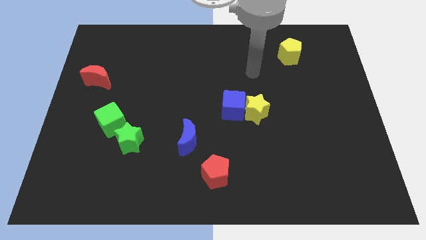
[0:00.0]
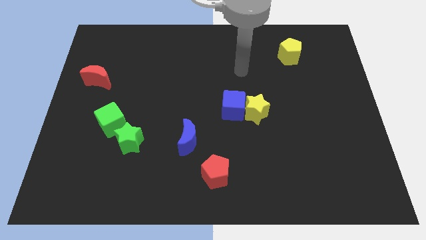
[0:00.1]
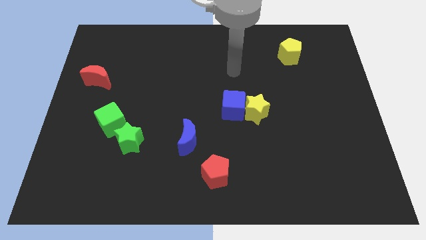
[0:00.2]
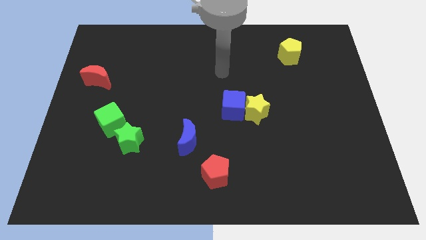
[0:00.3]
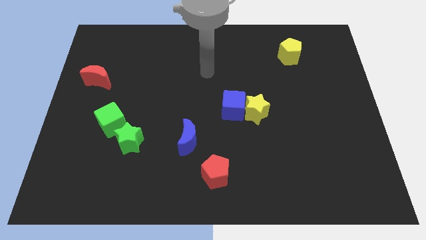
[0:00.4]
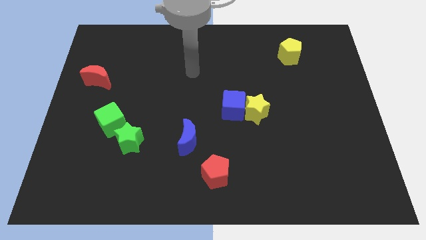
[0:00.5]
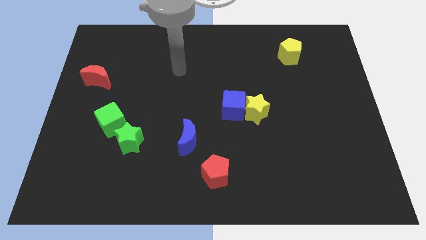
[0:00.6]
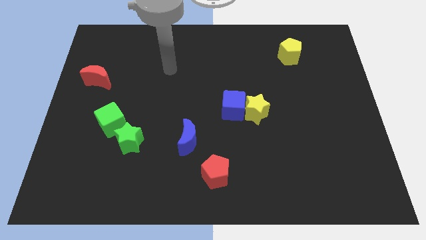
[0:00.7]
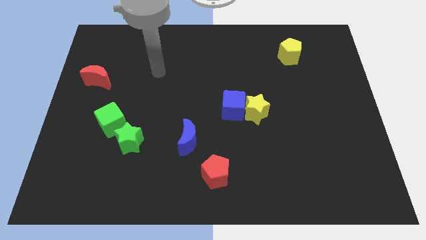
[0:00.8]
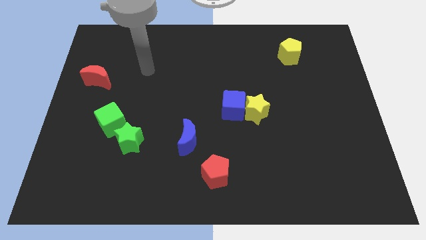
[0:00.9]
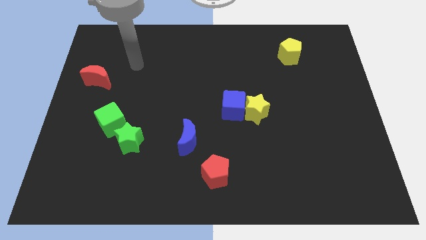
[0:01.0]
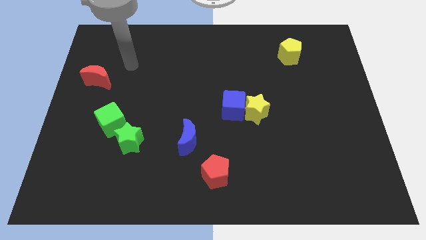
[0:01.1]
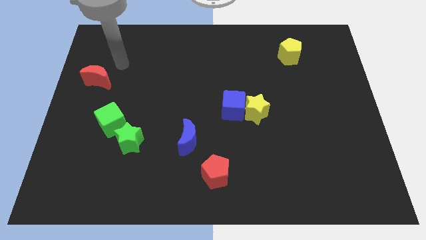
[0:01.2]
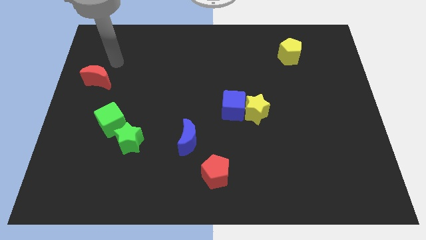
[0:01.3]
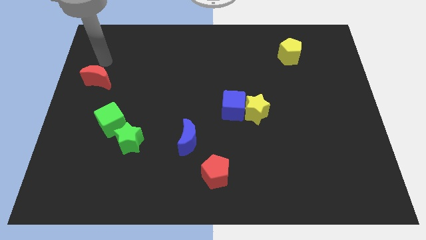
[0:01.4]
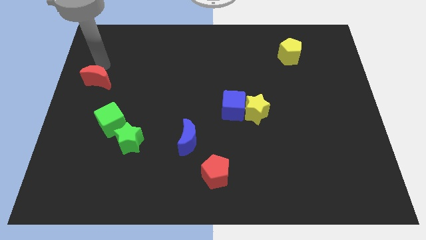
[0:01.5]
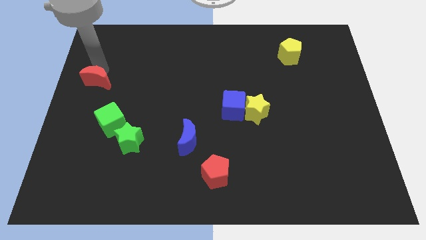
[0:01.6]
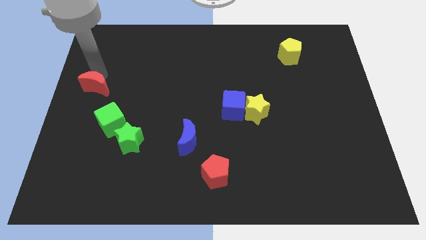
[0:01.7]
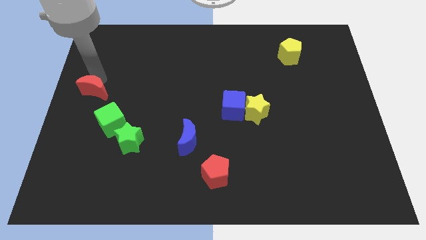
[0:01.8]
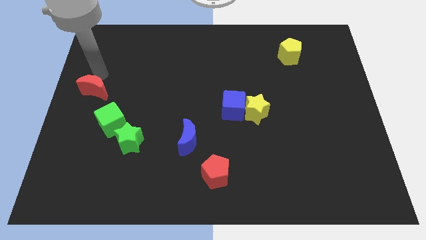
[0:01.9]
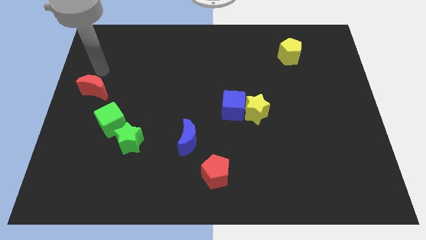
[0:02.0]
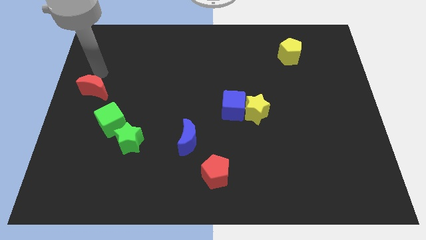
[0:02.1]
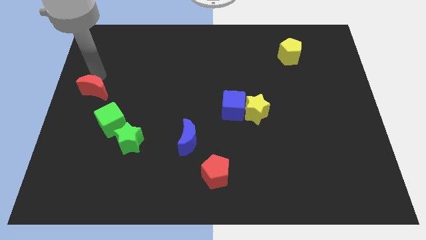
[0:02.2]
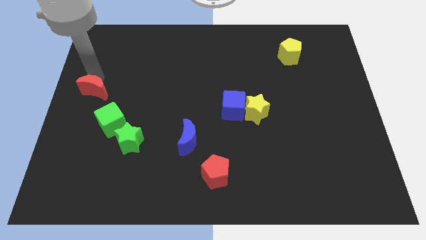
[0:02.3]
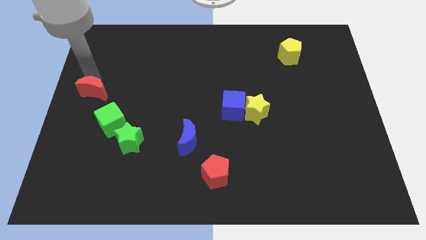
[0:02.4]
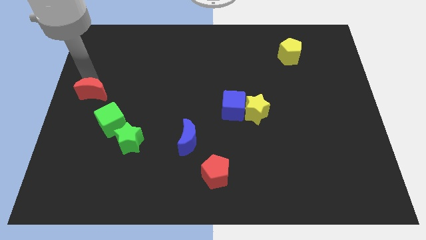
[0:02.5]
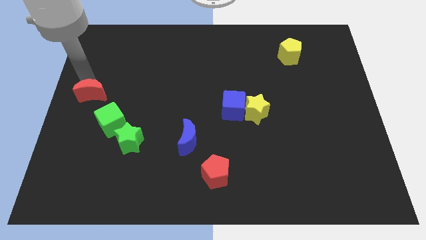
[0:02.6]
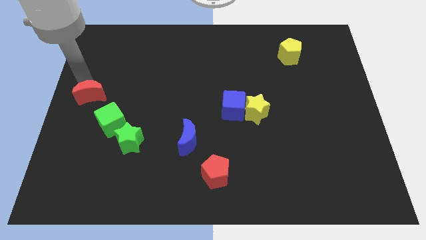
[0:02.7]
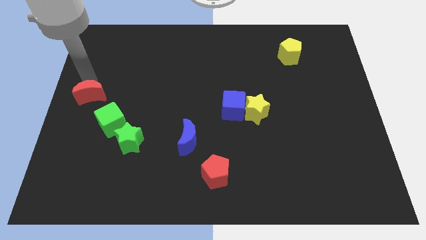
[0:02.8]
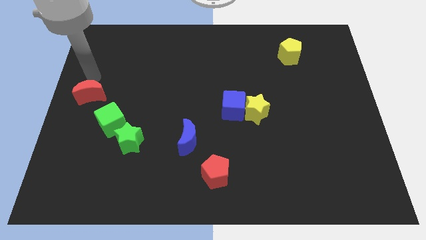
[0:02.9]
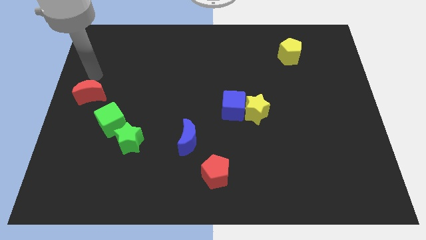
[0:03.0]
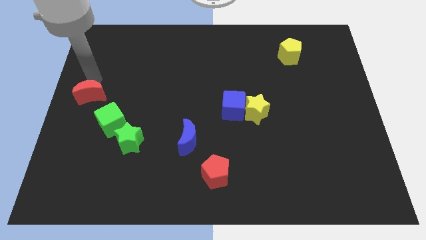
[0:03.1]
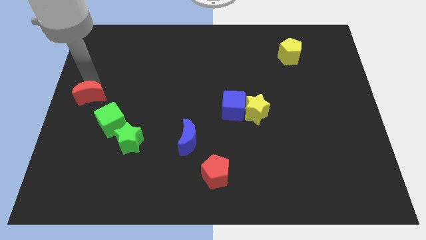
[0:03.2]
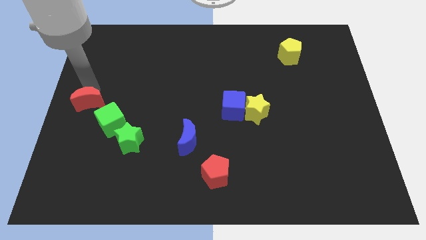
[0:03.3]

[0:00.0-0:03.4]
slightly push the red moon down

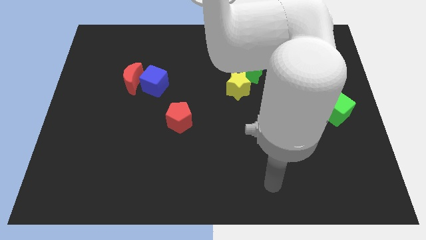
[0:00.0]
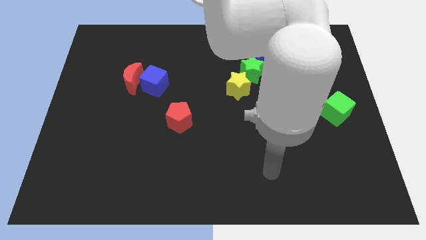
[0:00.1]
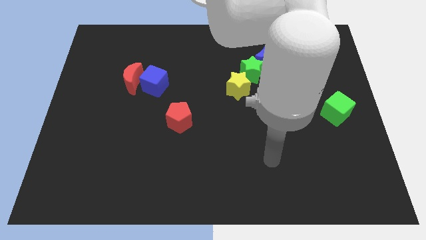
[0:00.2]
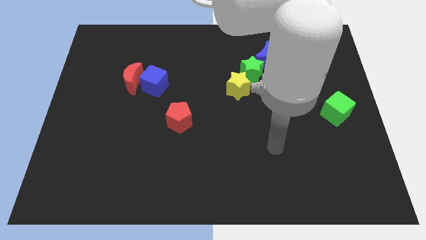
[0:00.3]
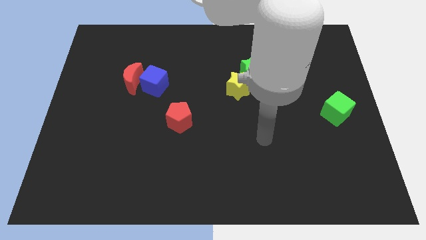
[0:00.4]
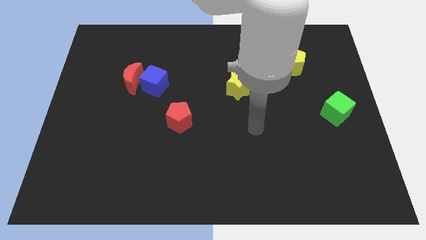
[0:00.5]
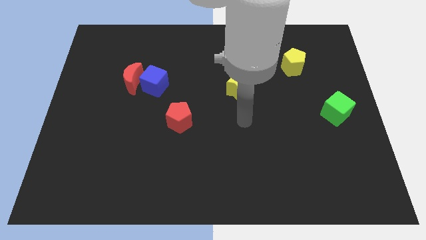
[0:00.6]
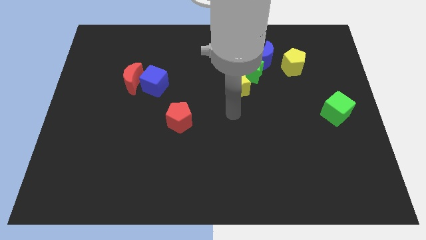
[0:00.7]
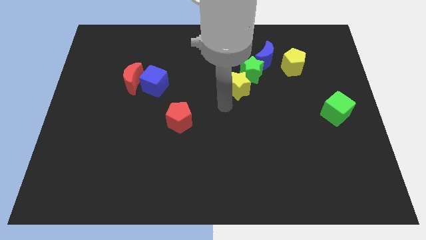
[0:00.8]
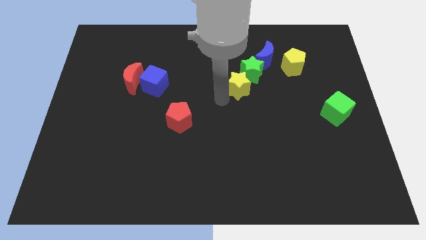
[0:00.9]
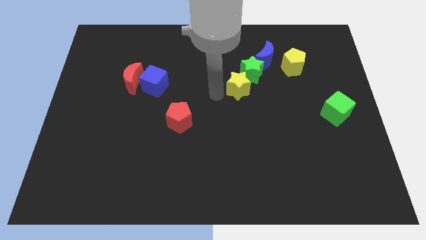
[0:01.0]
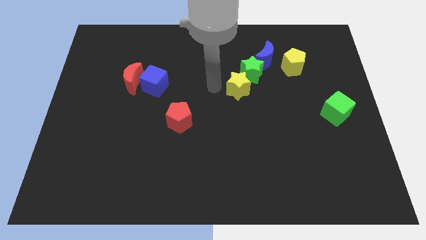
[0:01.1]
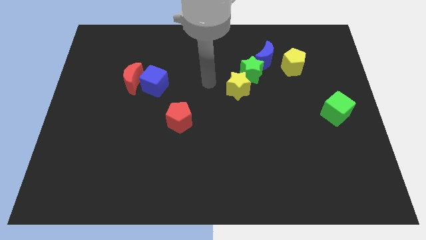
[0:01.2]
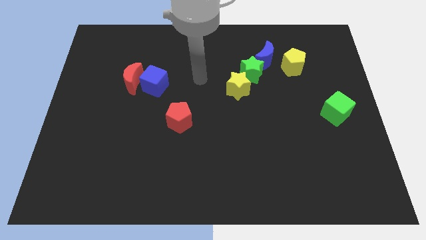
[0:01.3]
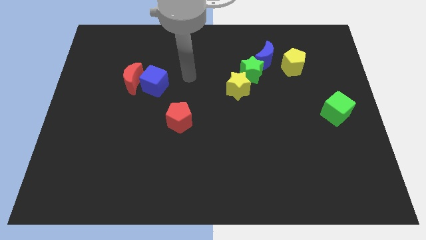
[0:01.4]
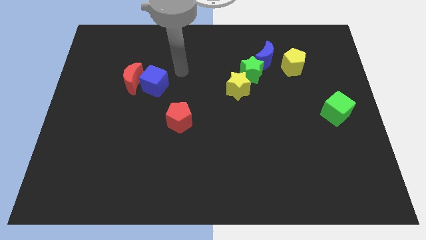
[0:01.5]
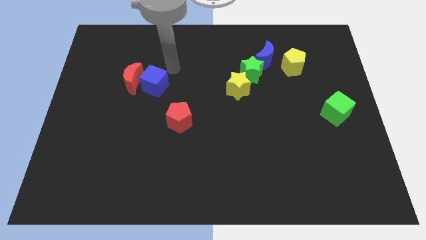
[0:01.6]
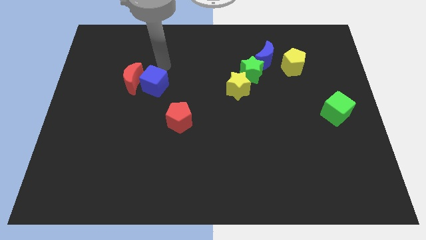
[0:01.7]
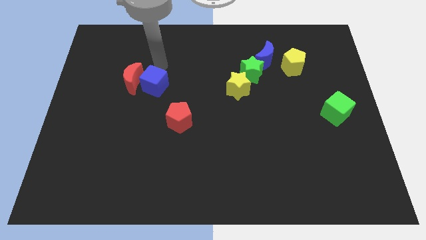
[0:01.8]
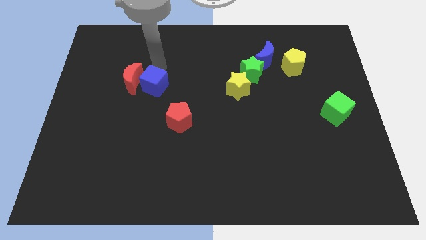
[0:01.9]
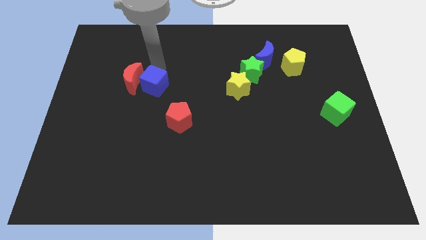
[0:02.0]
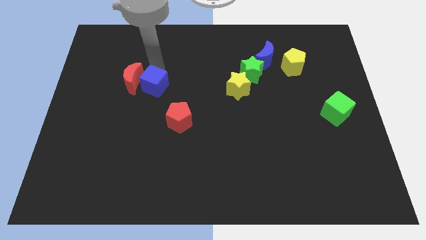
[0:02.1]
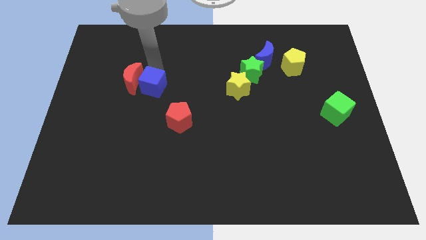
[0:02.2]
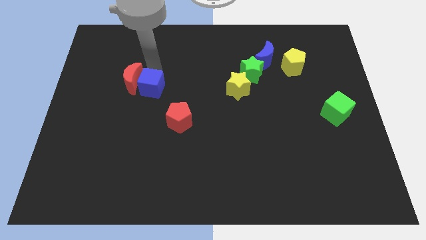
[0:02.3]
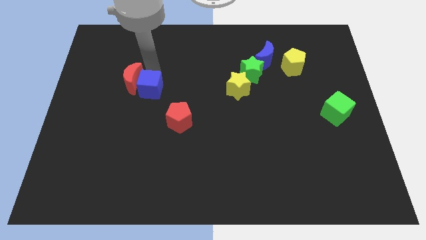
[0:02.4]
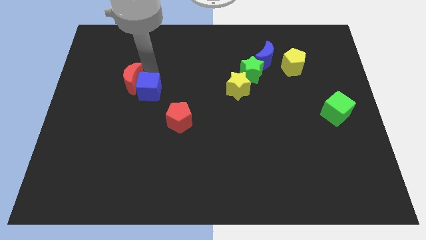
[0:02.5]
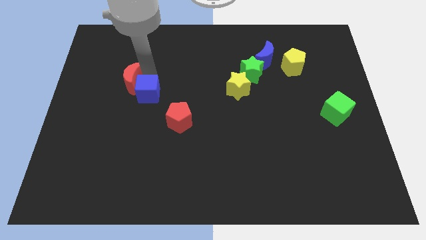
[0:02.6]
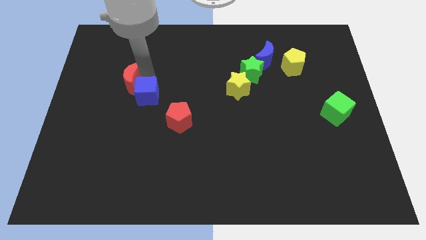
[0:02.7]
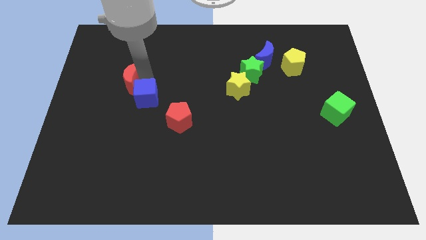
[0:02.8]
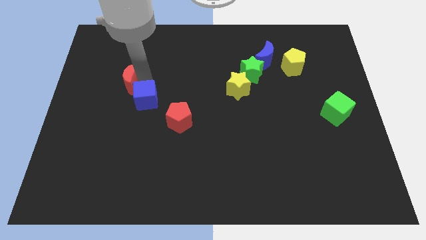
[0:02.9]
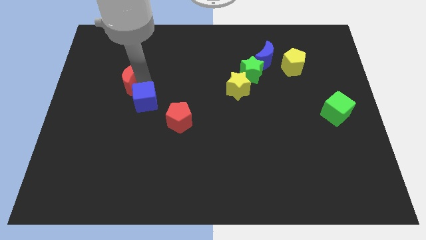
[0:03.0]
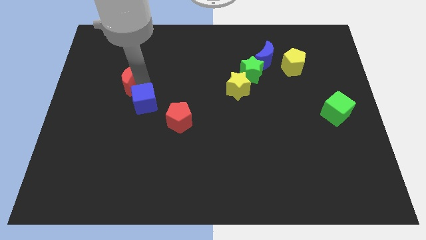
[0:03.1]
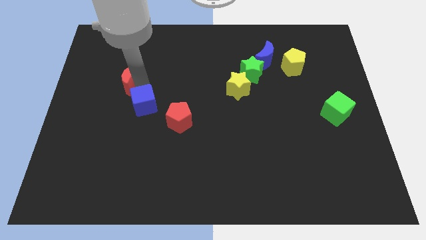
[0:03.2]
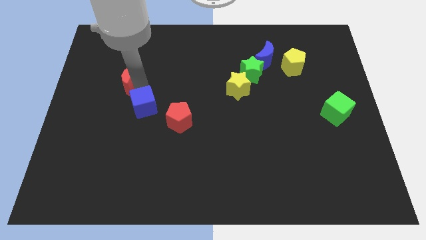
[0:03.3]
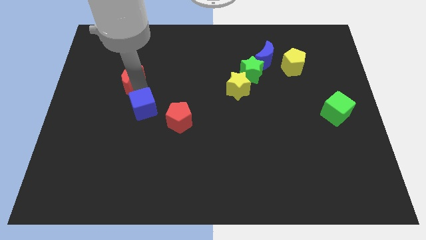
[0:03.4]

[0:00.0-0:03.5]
push the blue cube down a bit

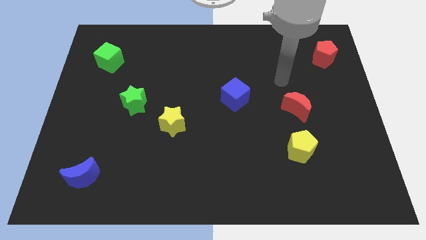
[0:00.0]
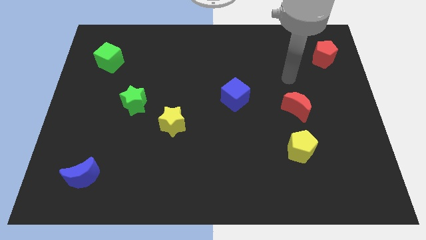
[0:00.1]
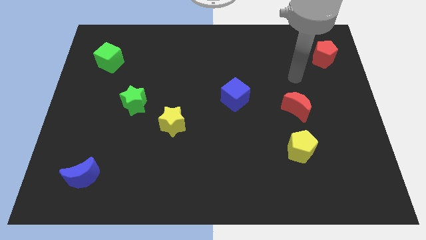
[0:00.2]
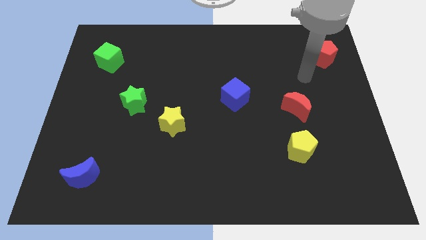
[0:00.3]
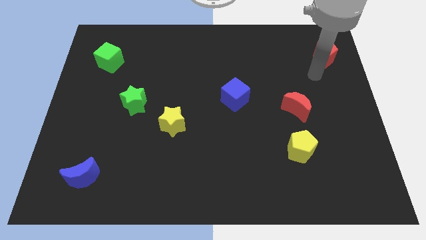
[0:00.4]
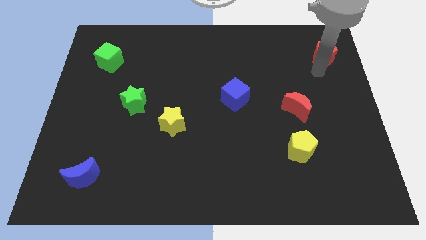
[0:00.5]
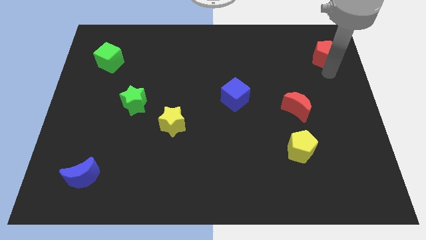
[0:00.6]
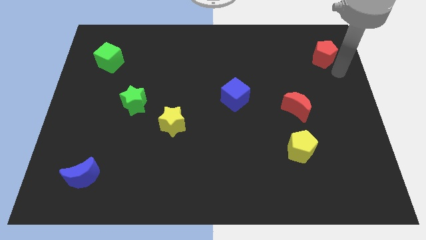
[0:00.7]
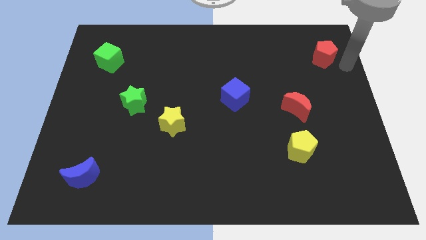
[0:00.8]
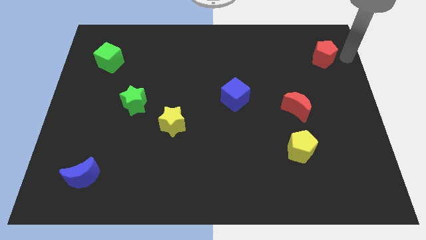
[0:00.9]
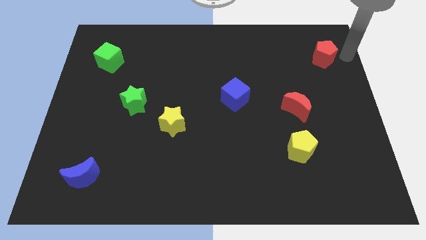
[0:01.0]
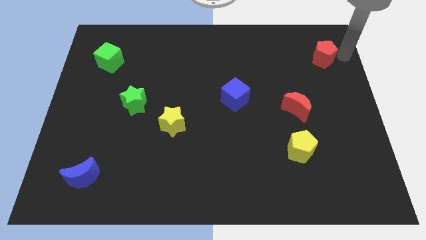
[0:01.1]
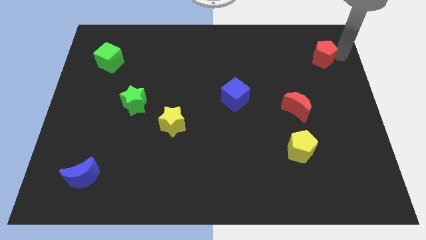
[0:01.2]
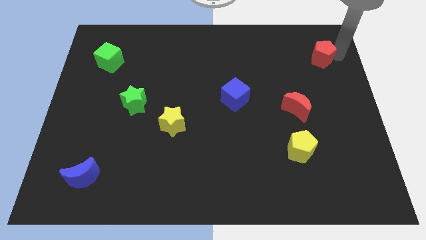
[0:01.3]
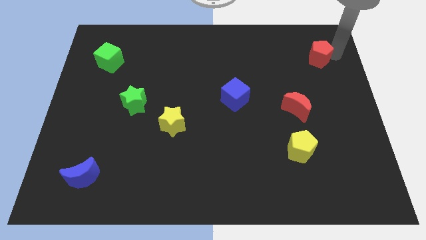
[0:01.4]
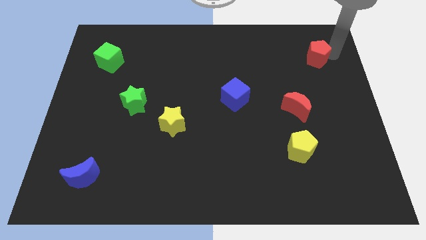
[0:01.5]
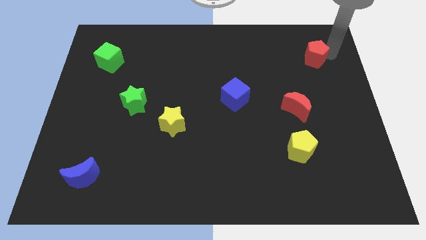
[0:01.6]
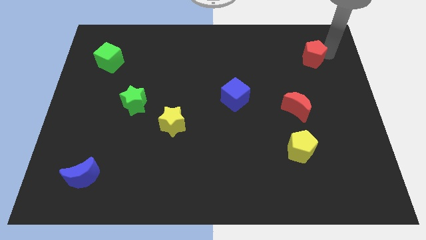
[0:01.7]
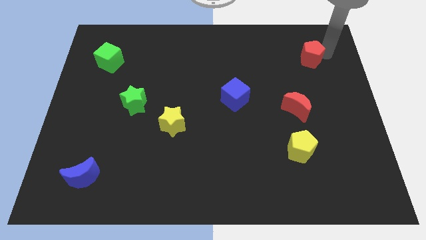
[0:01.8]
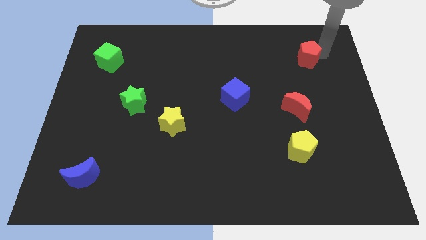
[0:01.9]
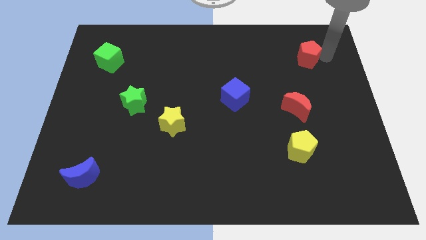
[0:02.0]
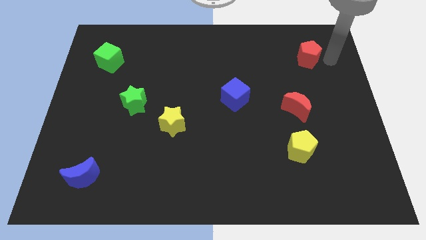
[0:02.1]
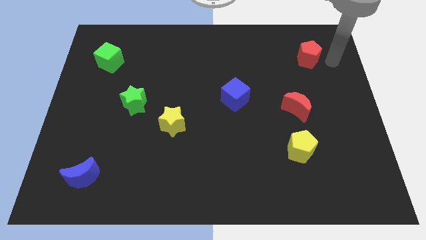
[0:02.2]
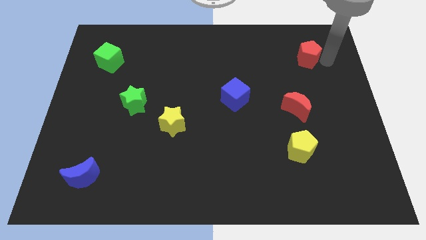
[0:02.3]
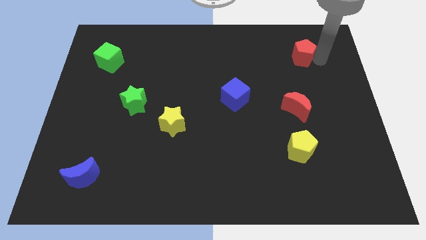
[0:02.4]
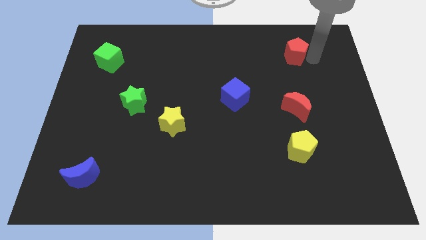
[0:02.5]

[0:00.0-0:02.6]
slide the red pentagon left a little
